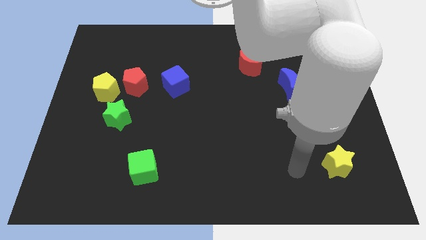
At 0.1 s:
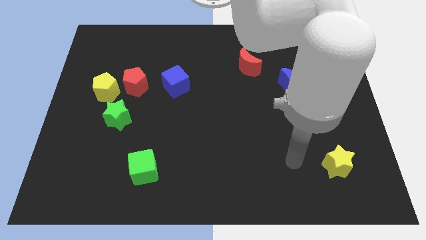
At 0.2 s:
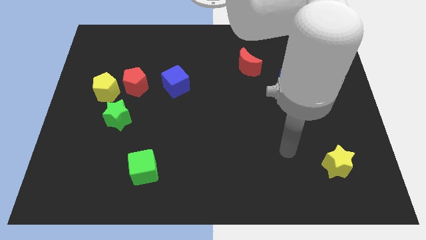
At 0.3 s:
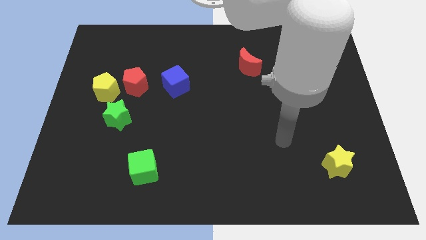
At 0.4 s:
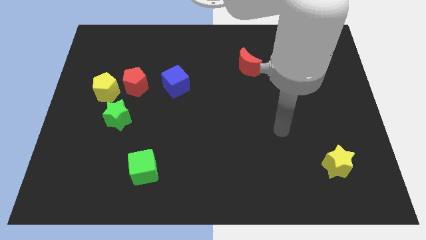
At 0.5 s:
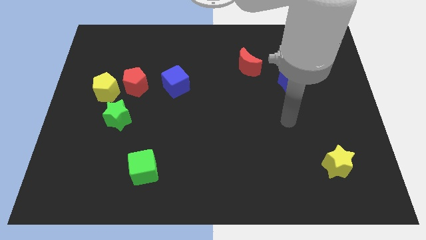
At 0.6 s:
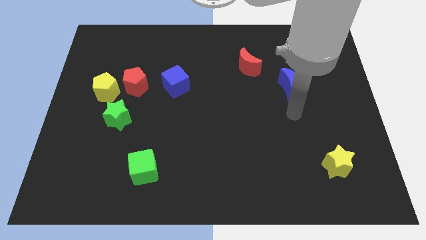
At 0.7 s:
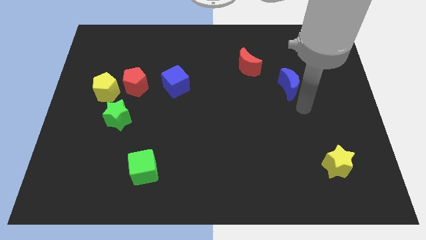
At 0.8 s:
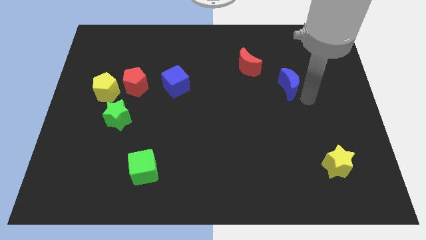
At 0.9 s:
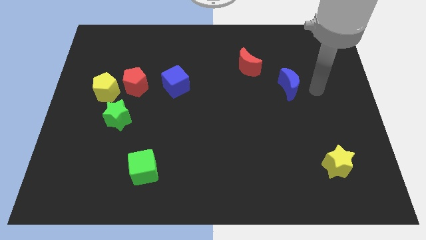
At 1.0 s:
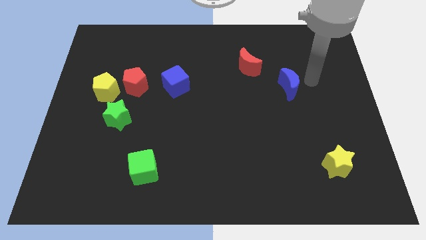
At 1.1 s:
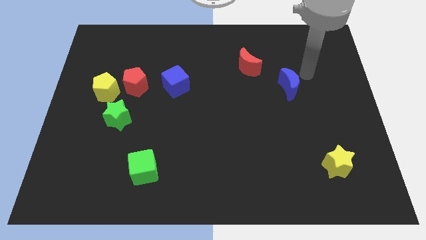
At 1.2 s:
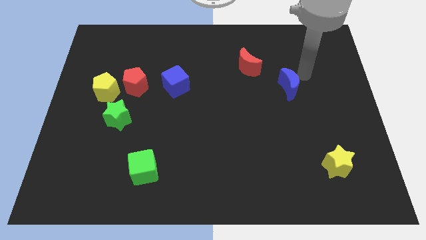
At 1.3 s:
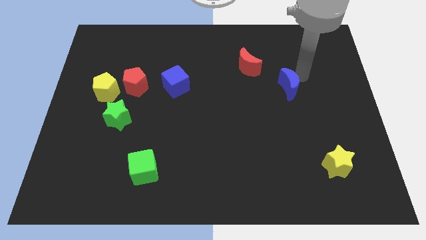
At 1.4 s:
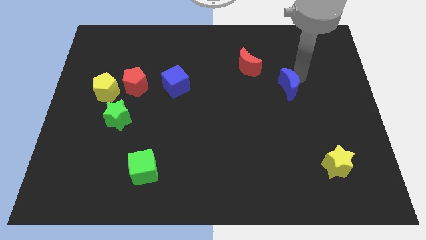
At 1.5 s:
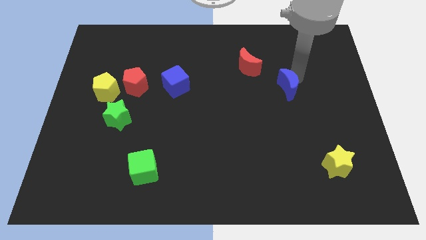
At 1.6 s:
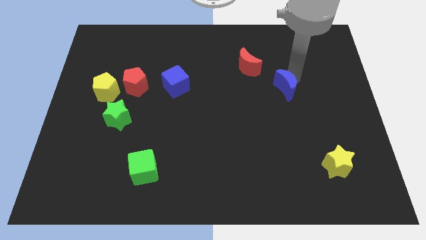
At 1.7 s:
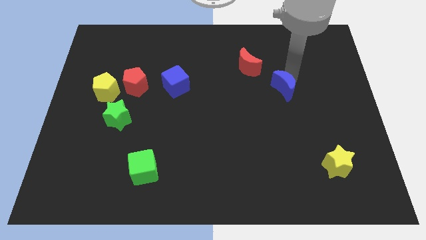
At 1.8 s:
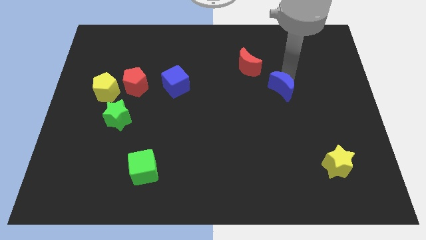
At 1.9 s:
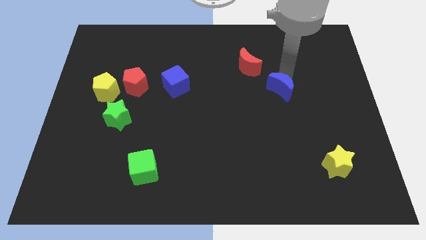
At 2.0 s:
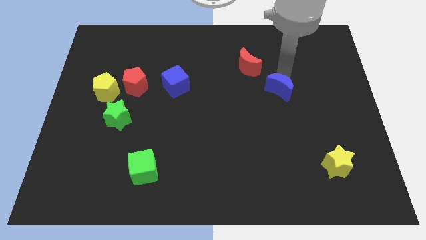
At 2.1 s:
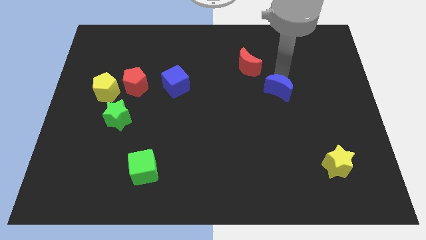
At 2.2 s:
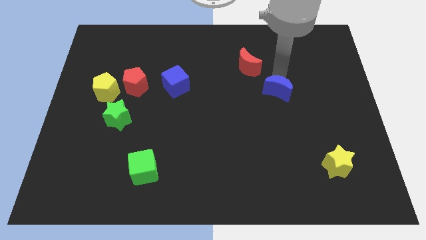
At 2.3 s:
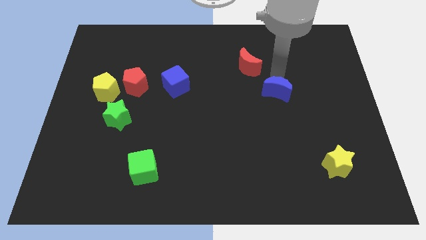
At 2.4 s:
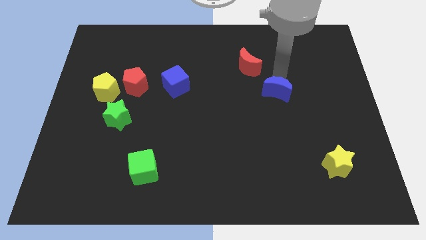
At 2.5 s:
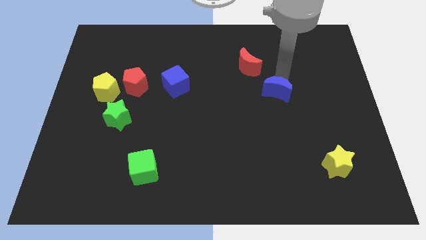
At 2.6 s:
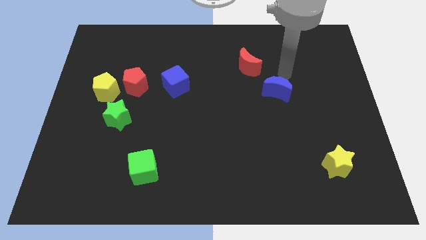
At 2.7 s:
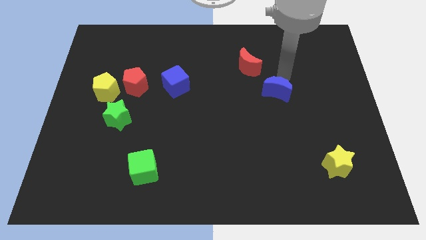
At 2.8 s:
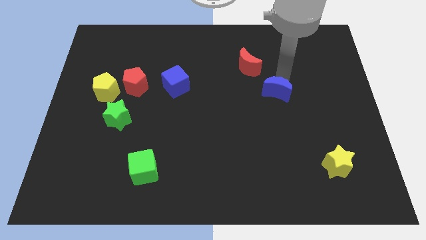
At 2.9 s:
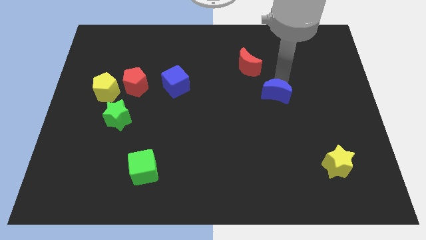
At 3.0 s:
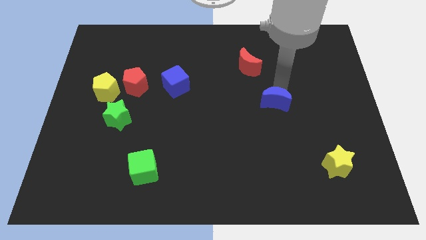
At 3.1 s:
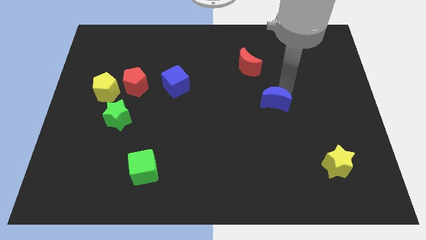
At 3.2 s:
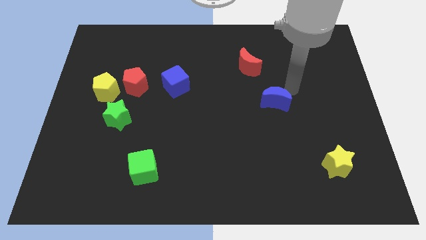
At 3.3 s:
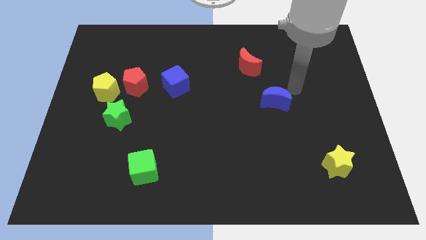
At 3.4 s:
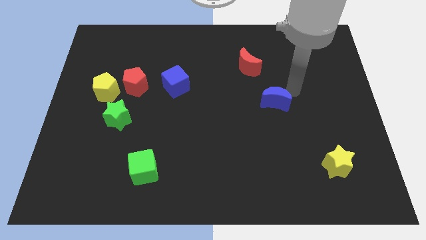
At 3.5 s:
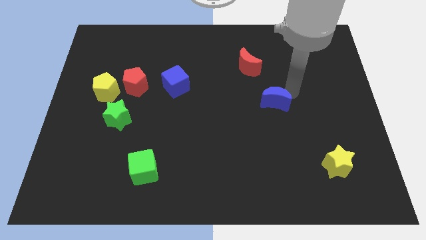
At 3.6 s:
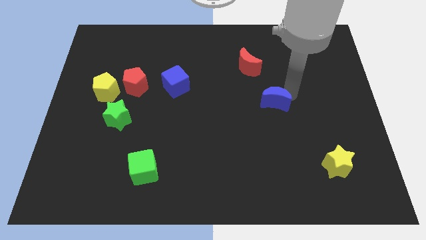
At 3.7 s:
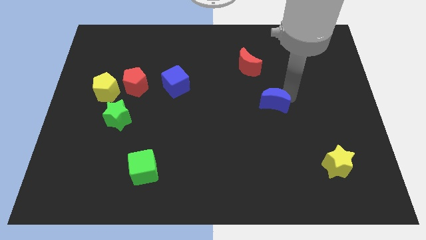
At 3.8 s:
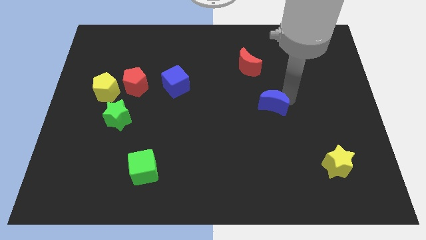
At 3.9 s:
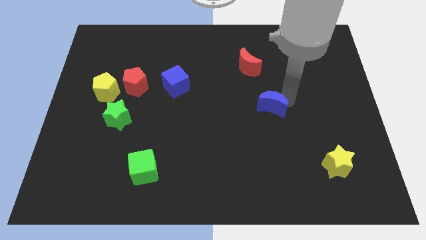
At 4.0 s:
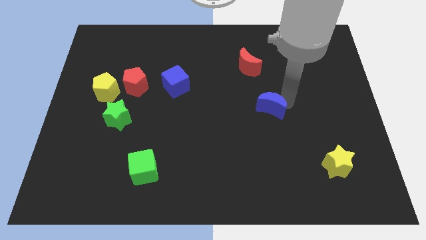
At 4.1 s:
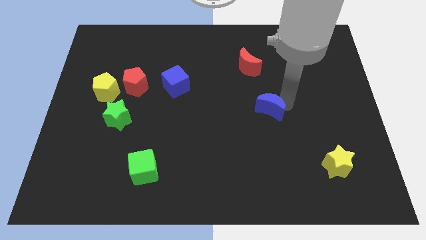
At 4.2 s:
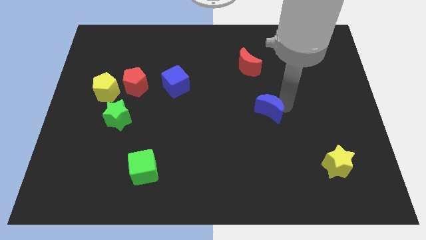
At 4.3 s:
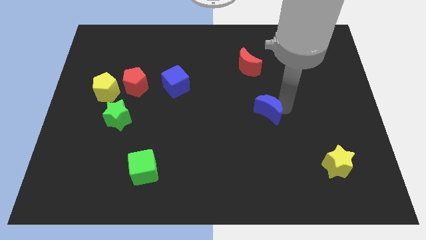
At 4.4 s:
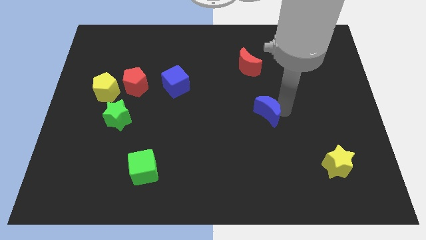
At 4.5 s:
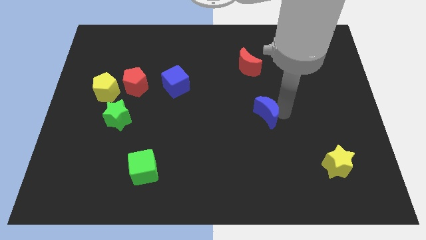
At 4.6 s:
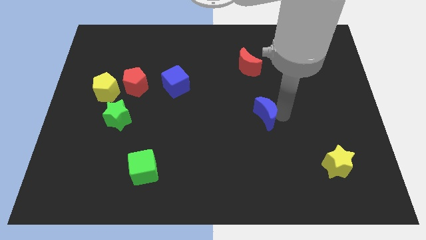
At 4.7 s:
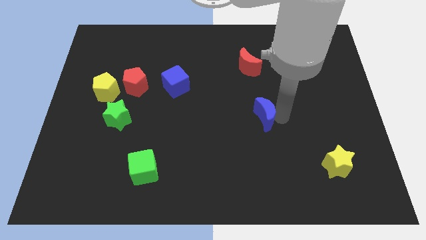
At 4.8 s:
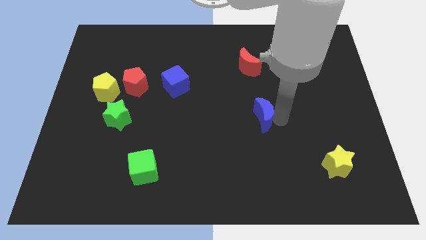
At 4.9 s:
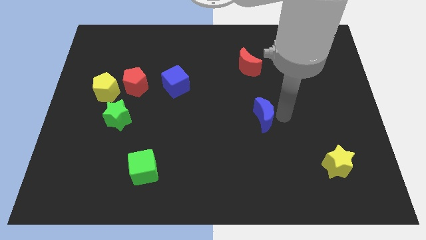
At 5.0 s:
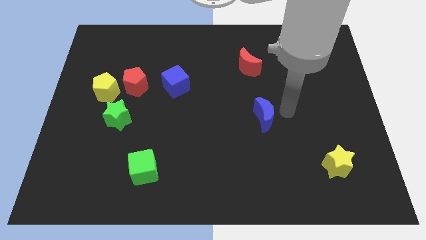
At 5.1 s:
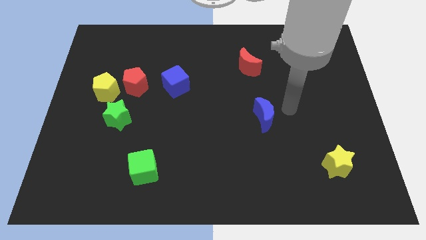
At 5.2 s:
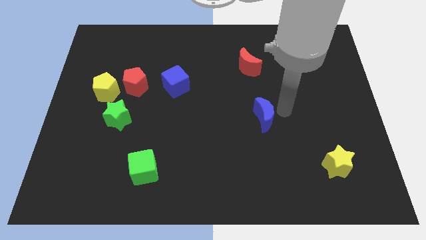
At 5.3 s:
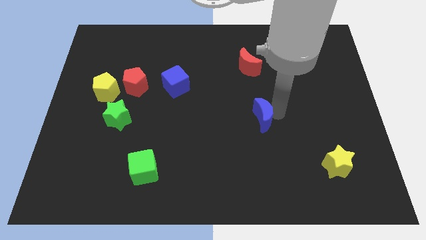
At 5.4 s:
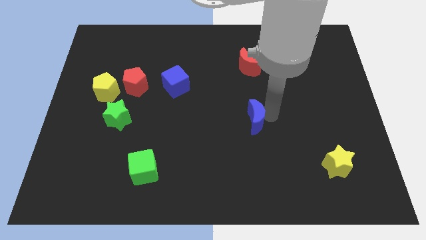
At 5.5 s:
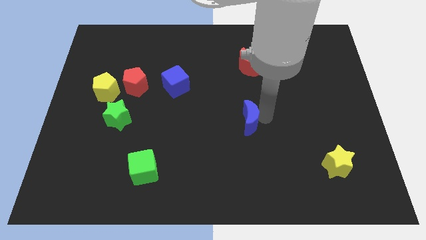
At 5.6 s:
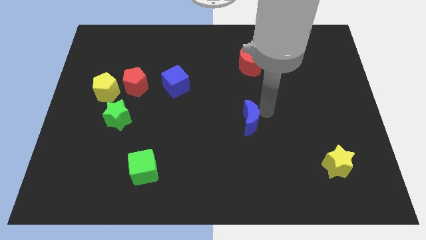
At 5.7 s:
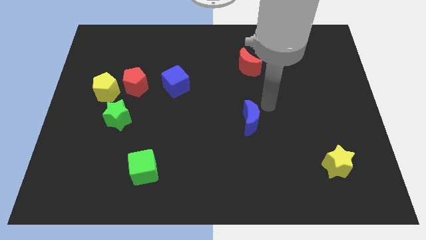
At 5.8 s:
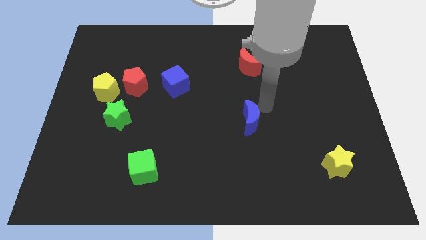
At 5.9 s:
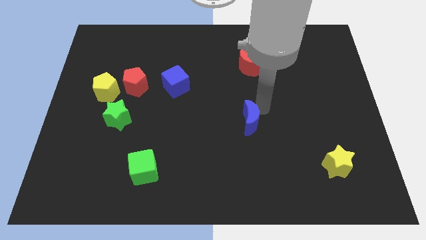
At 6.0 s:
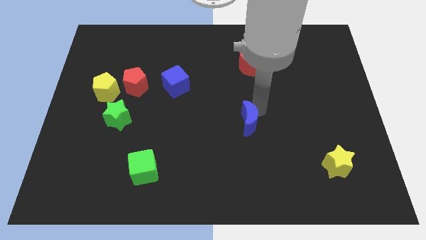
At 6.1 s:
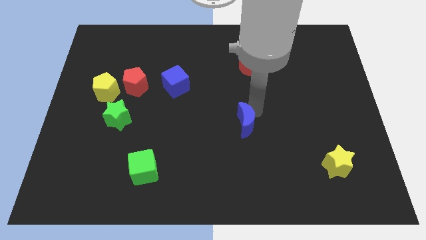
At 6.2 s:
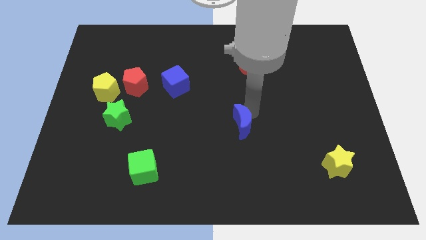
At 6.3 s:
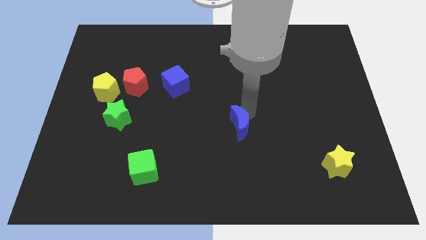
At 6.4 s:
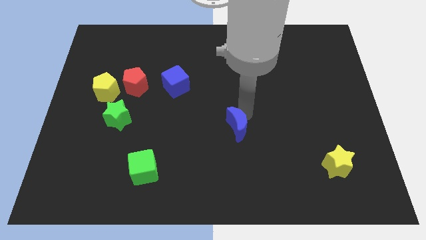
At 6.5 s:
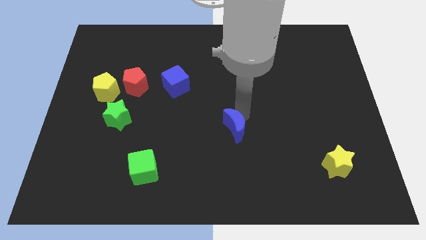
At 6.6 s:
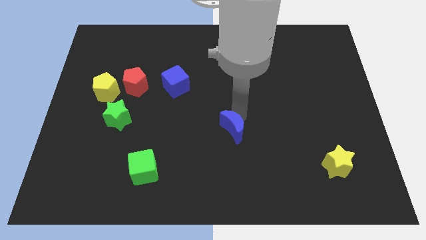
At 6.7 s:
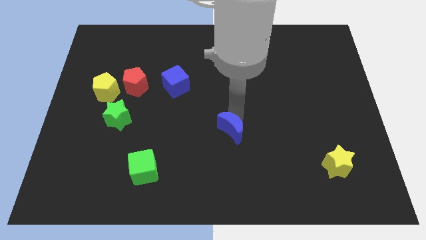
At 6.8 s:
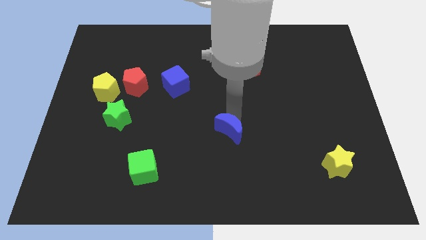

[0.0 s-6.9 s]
slide the blue moon down and to the left

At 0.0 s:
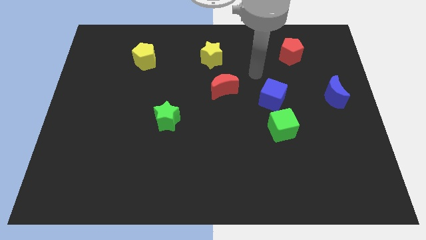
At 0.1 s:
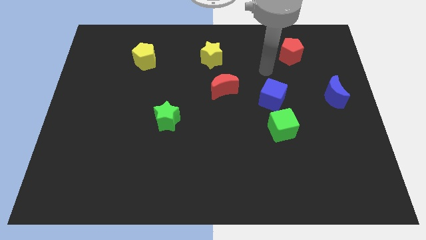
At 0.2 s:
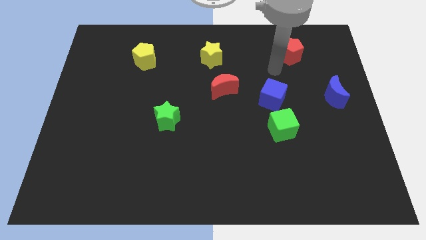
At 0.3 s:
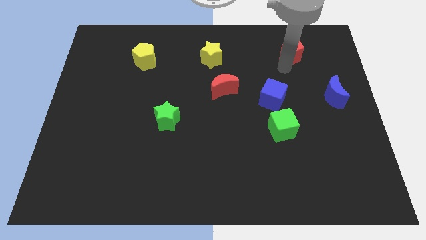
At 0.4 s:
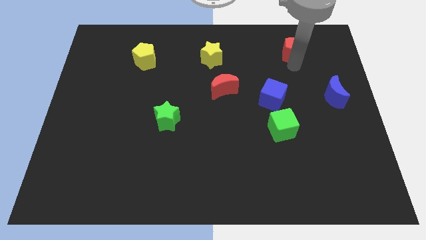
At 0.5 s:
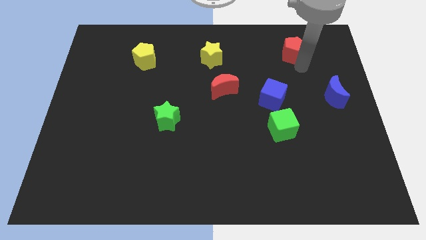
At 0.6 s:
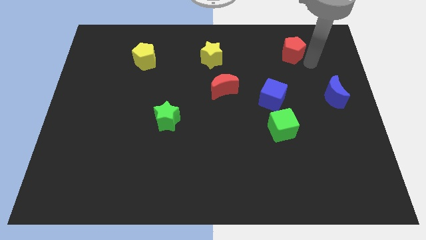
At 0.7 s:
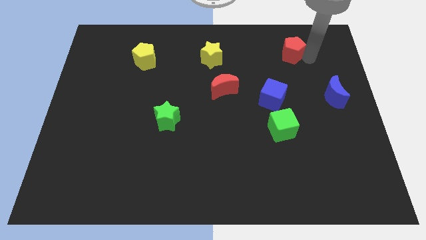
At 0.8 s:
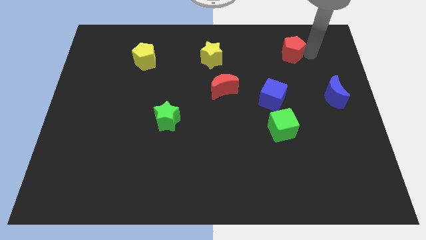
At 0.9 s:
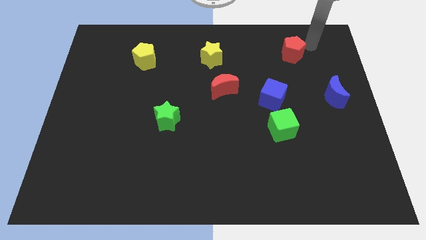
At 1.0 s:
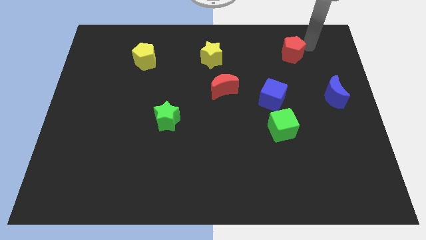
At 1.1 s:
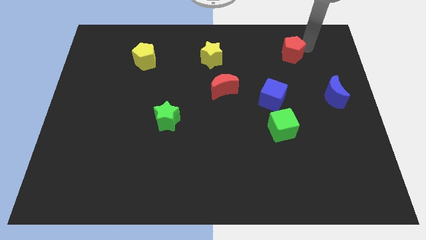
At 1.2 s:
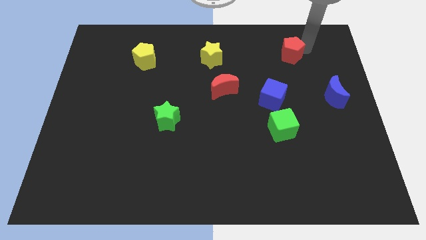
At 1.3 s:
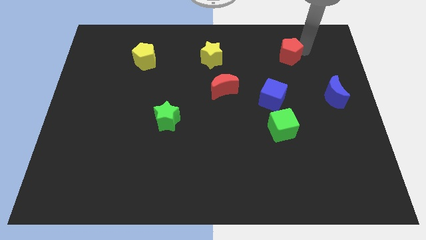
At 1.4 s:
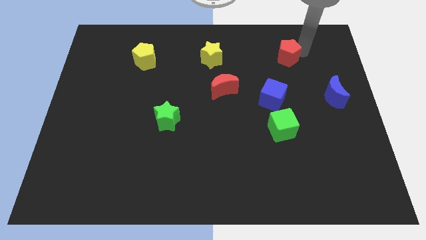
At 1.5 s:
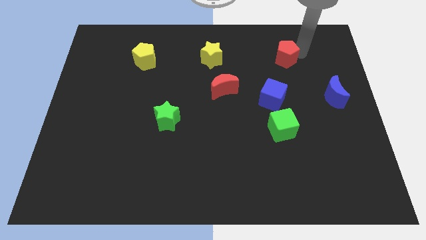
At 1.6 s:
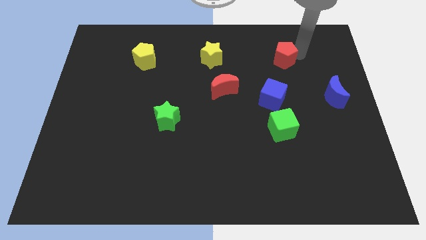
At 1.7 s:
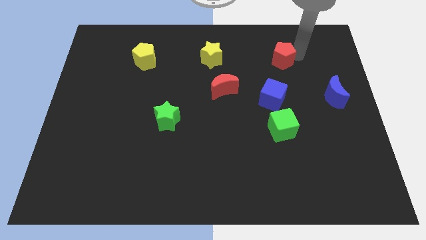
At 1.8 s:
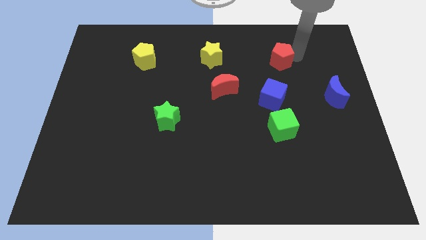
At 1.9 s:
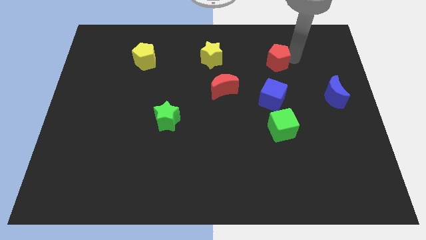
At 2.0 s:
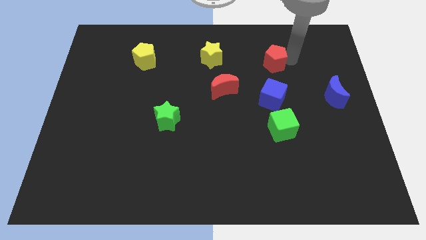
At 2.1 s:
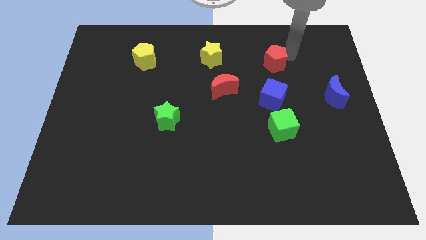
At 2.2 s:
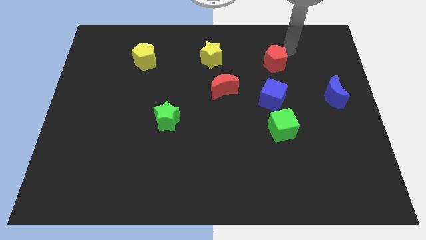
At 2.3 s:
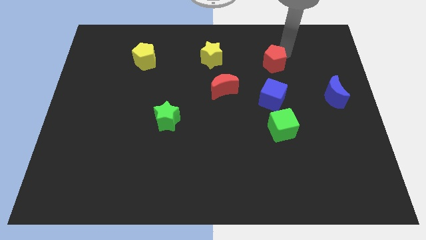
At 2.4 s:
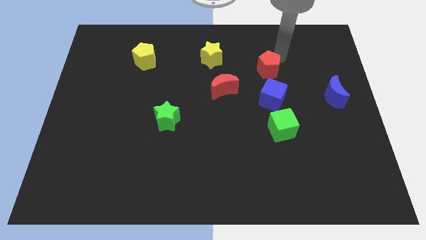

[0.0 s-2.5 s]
slightly push the red pentagon diagonally down and left
